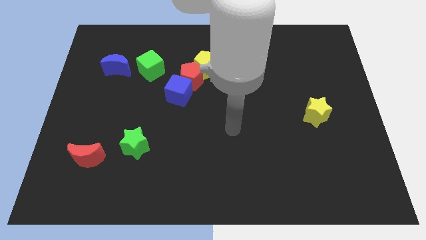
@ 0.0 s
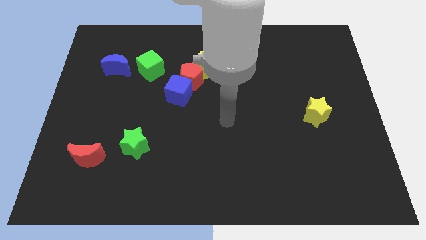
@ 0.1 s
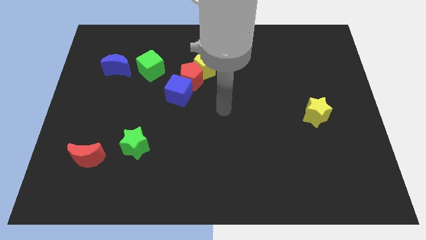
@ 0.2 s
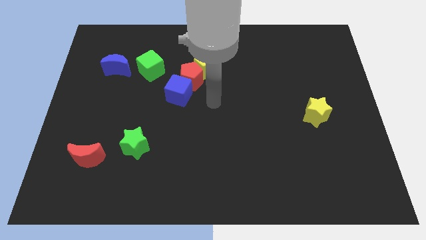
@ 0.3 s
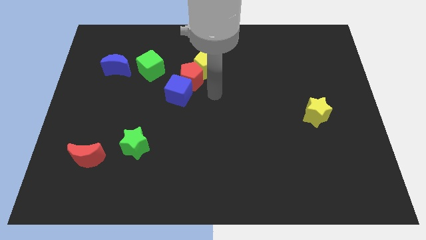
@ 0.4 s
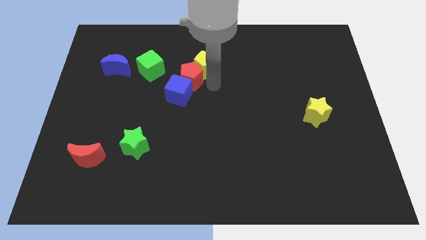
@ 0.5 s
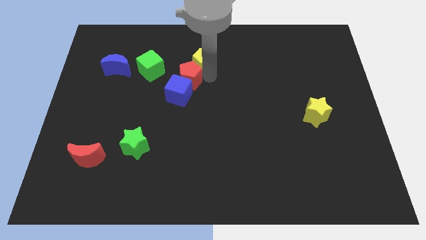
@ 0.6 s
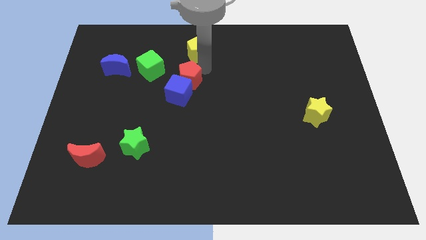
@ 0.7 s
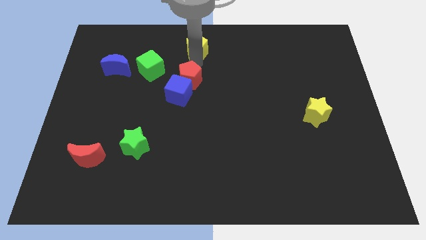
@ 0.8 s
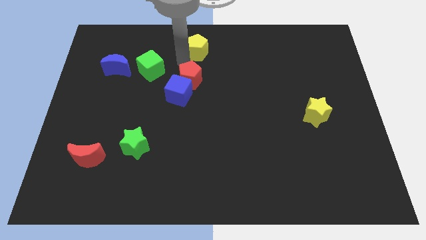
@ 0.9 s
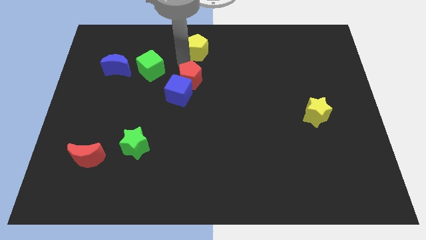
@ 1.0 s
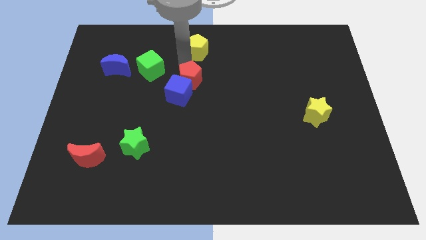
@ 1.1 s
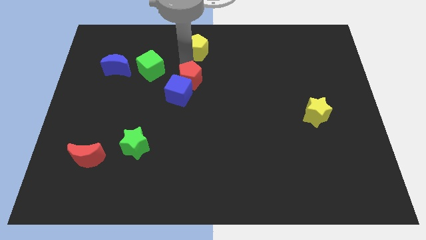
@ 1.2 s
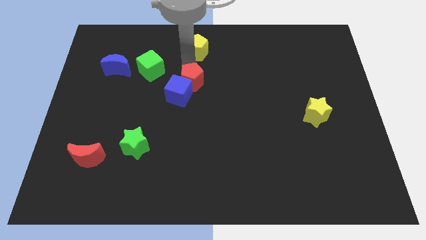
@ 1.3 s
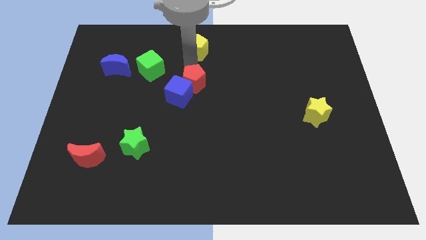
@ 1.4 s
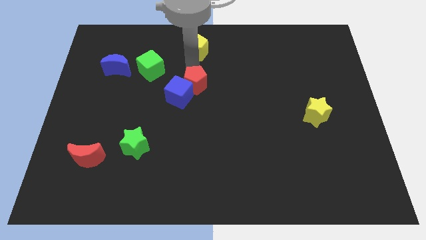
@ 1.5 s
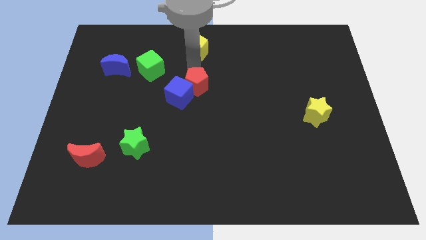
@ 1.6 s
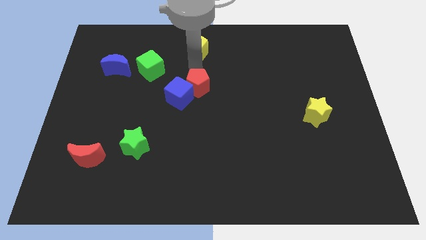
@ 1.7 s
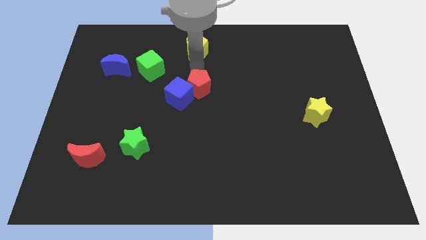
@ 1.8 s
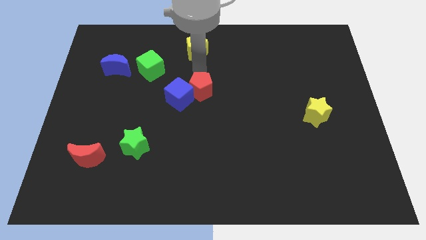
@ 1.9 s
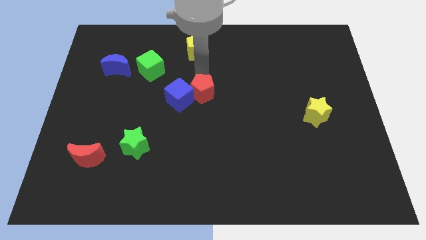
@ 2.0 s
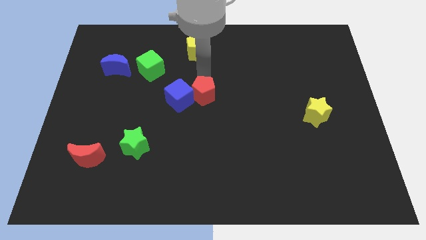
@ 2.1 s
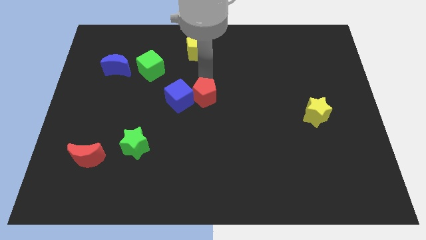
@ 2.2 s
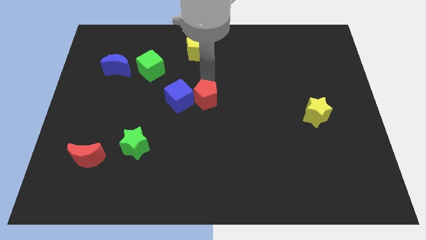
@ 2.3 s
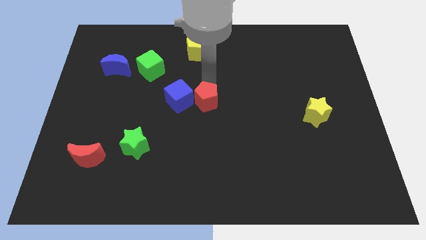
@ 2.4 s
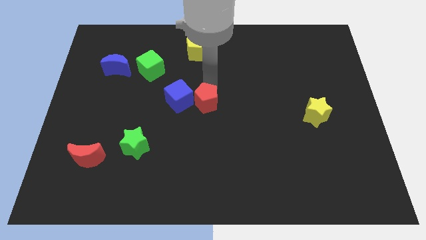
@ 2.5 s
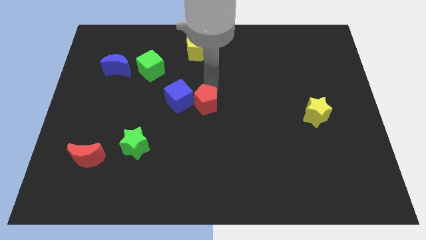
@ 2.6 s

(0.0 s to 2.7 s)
move the red pentagon a bit down

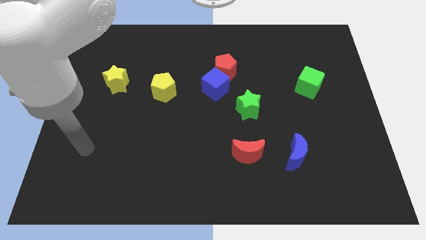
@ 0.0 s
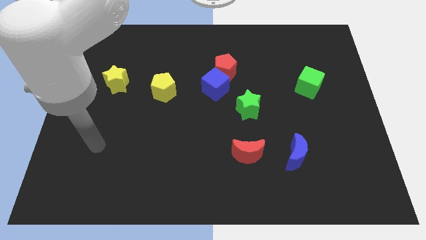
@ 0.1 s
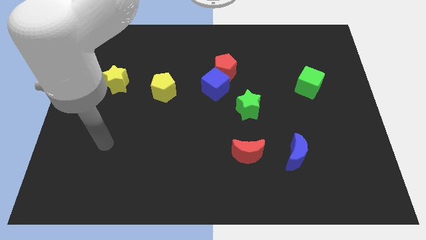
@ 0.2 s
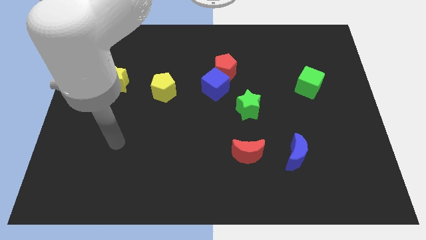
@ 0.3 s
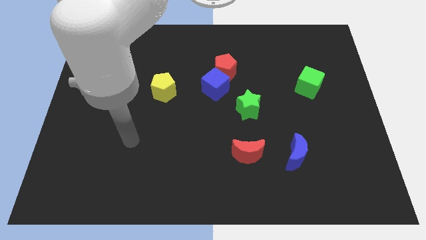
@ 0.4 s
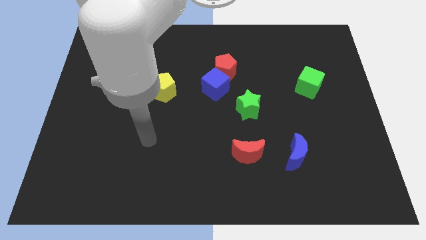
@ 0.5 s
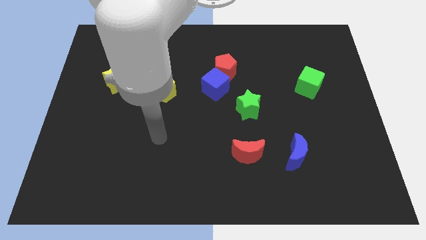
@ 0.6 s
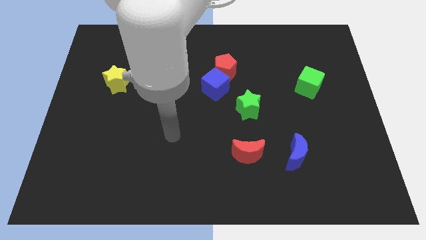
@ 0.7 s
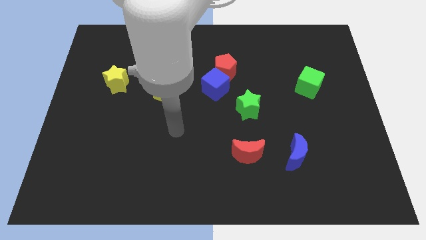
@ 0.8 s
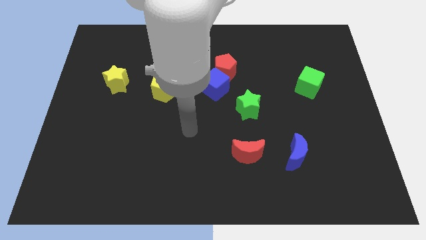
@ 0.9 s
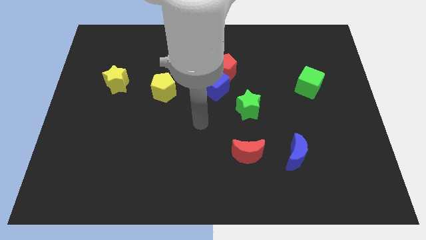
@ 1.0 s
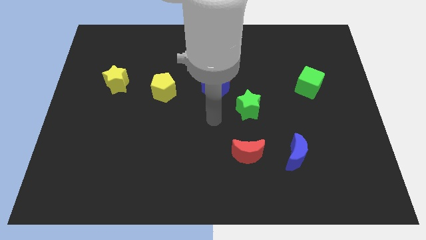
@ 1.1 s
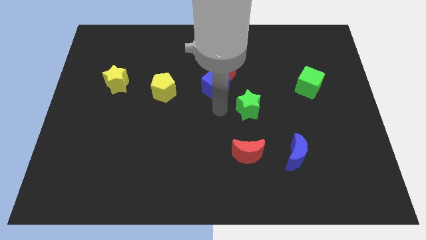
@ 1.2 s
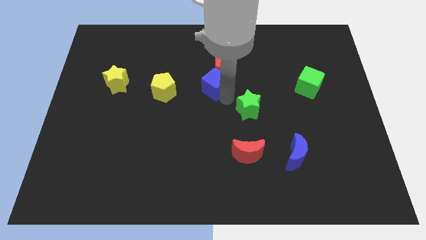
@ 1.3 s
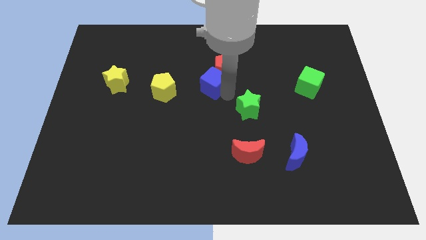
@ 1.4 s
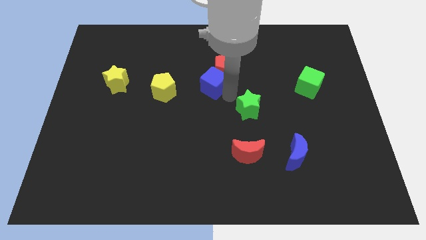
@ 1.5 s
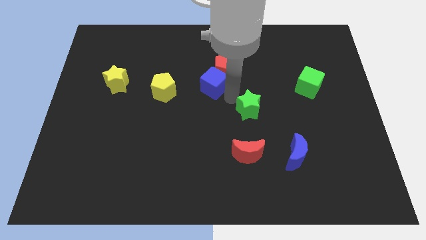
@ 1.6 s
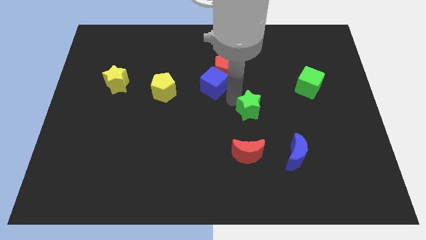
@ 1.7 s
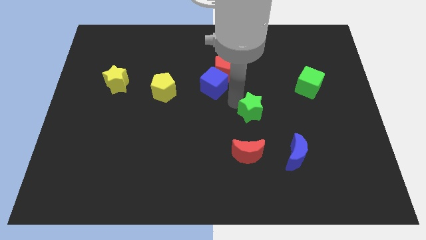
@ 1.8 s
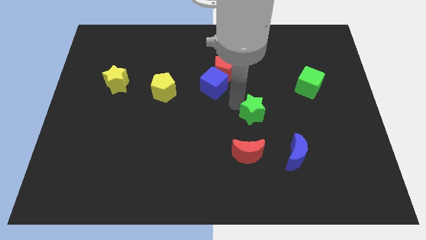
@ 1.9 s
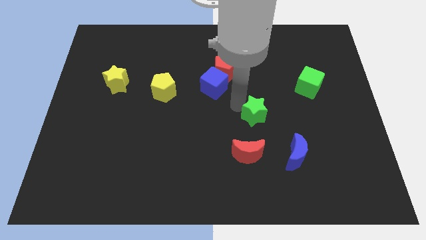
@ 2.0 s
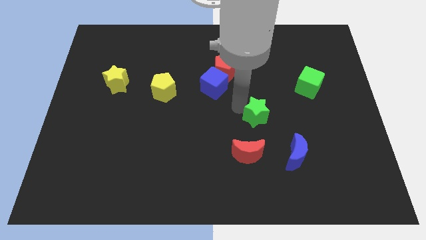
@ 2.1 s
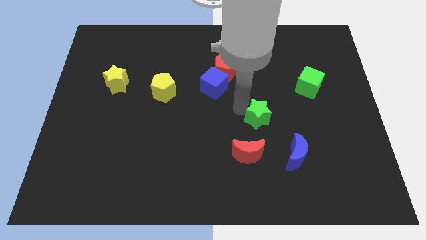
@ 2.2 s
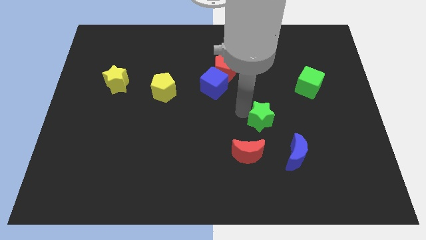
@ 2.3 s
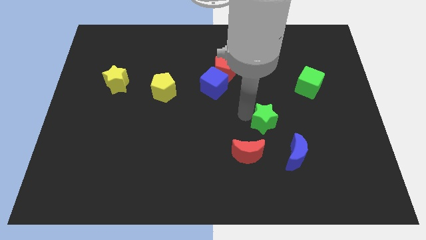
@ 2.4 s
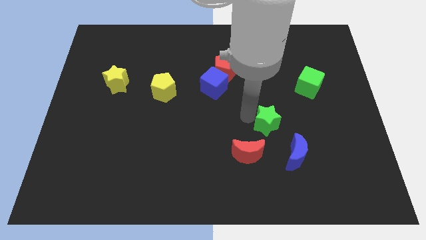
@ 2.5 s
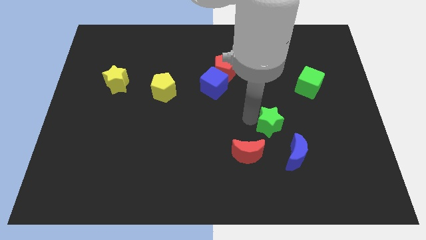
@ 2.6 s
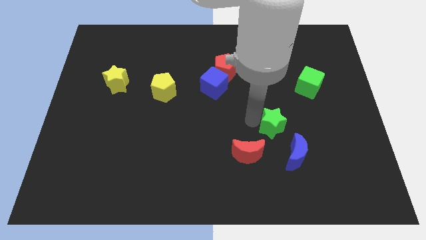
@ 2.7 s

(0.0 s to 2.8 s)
move the green star downwards and to the right diagonally a bit

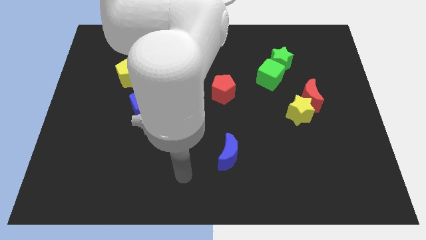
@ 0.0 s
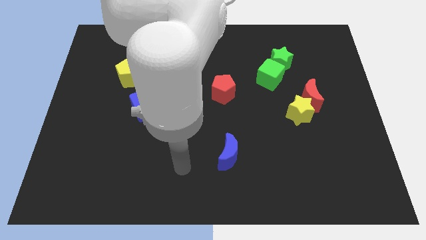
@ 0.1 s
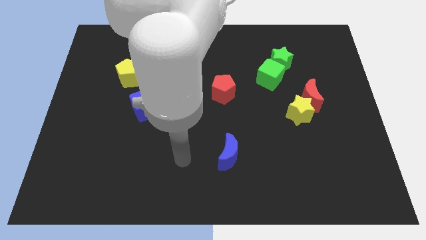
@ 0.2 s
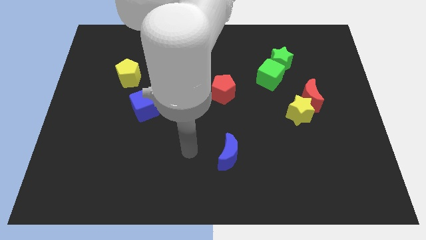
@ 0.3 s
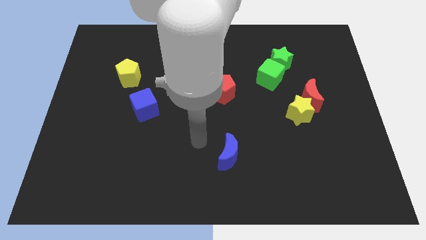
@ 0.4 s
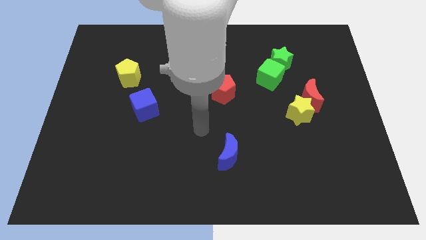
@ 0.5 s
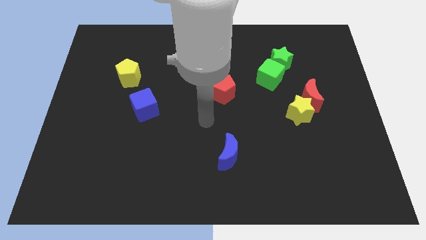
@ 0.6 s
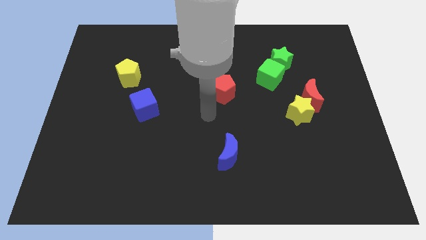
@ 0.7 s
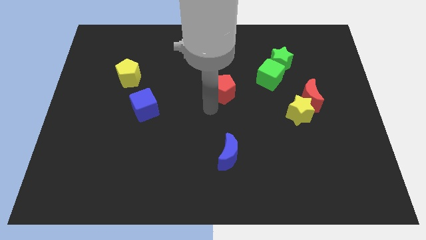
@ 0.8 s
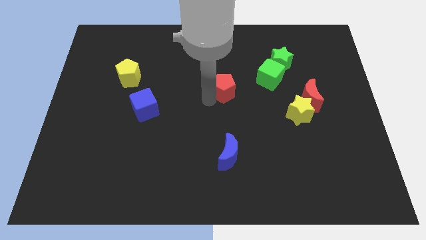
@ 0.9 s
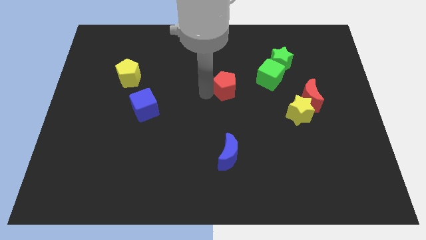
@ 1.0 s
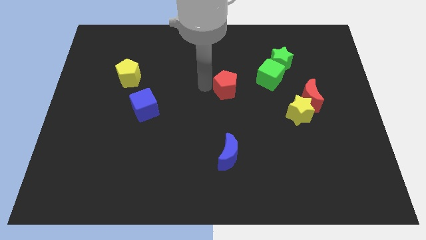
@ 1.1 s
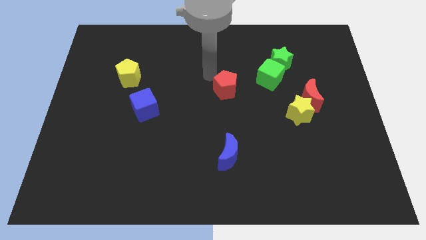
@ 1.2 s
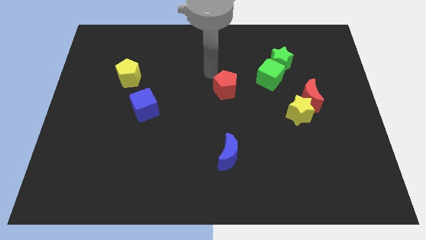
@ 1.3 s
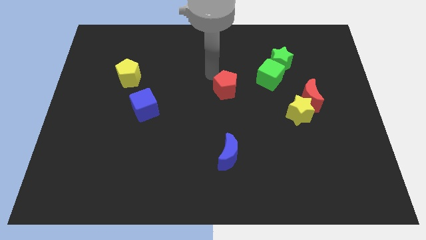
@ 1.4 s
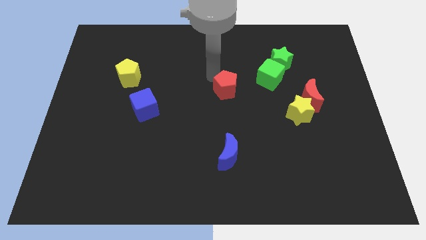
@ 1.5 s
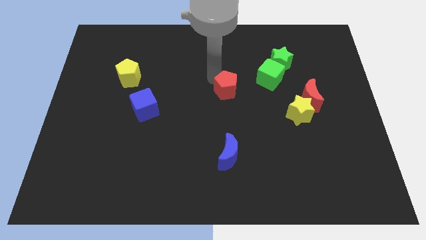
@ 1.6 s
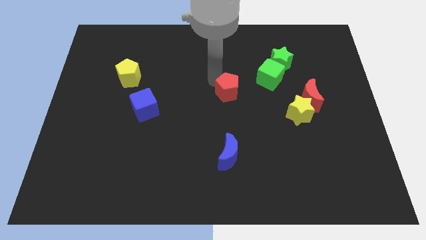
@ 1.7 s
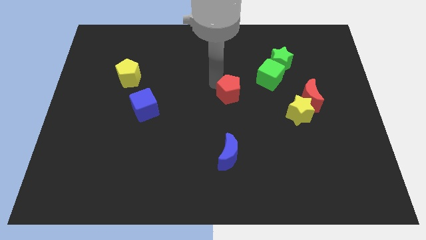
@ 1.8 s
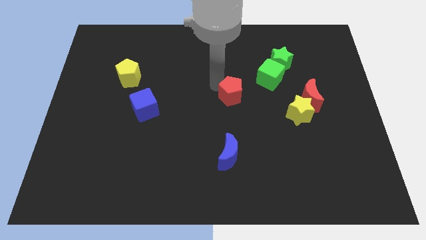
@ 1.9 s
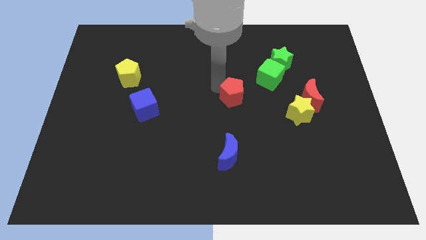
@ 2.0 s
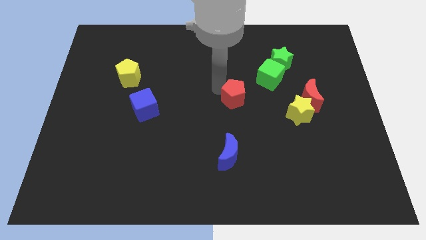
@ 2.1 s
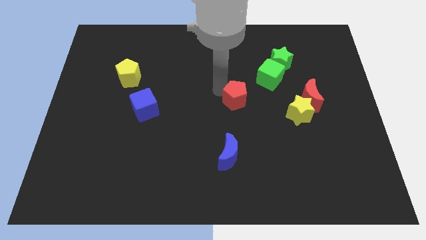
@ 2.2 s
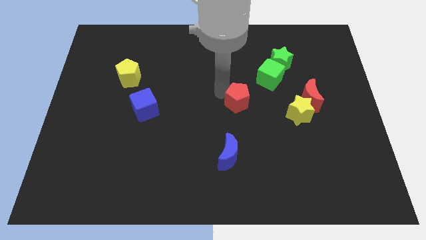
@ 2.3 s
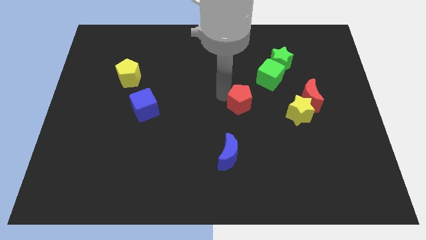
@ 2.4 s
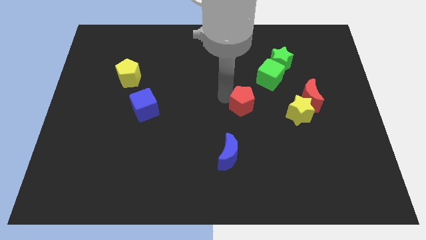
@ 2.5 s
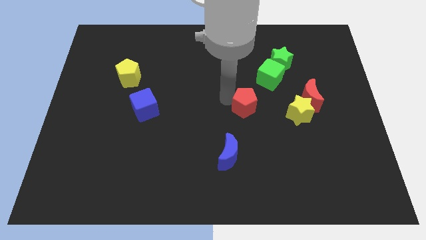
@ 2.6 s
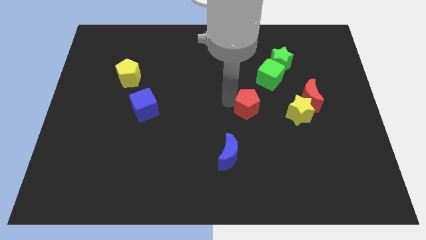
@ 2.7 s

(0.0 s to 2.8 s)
push the red pentagon downwards and then right slightly
